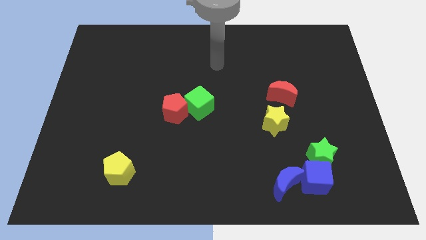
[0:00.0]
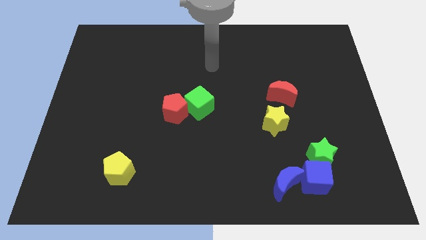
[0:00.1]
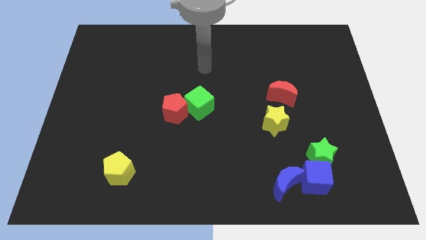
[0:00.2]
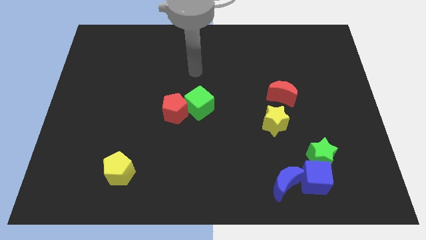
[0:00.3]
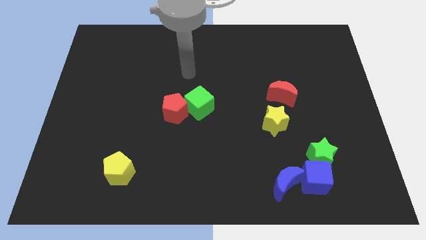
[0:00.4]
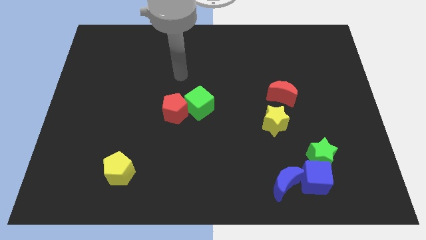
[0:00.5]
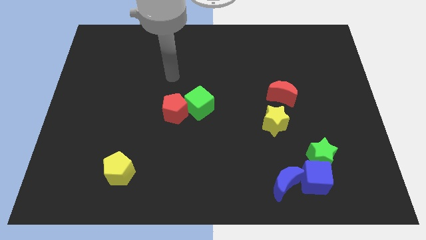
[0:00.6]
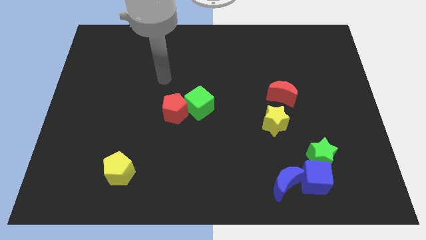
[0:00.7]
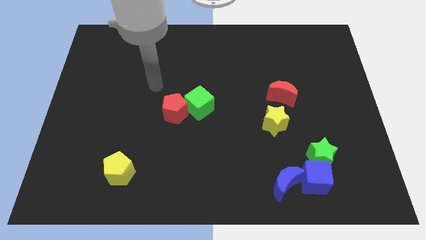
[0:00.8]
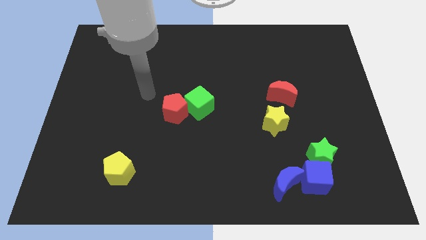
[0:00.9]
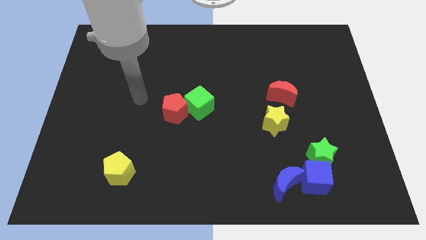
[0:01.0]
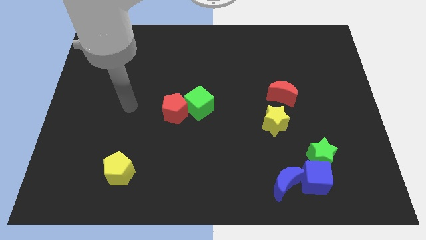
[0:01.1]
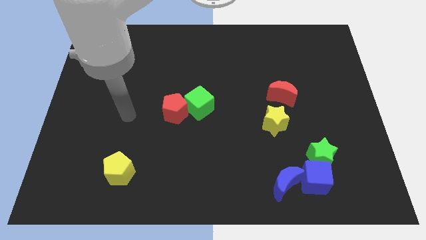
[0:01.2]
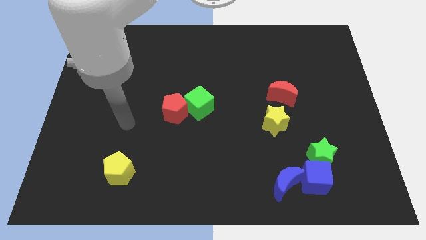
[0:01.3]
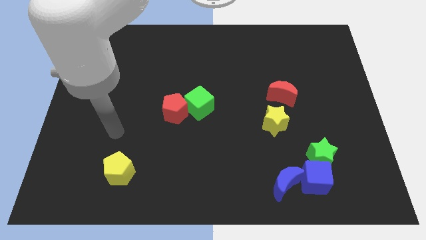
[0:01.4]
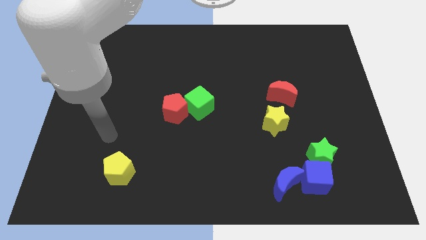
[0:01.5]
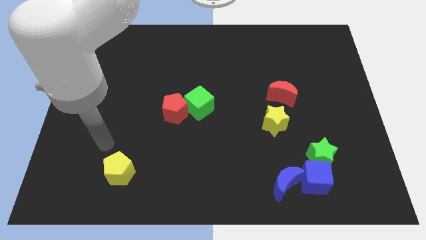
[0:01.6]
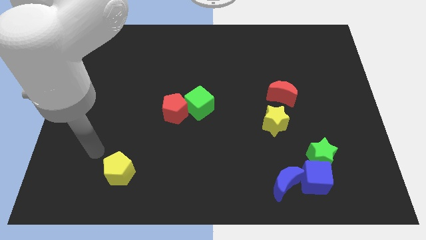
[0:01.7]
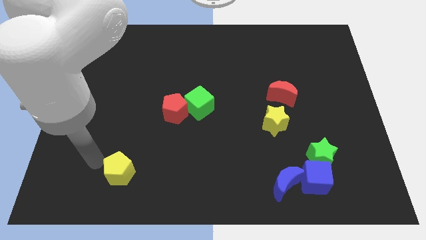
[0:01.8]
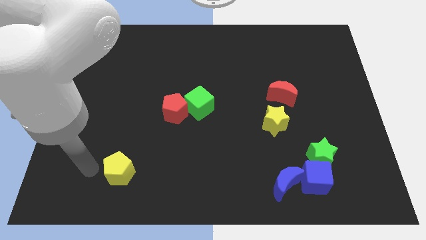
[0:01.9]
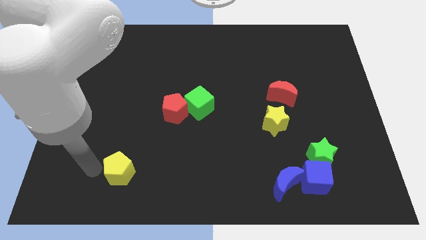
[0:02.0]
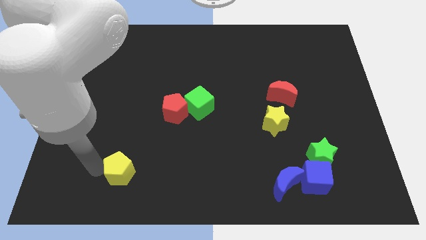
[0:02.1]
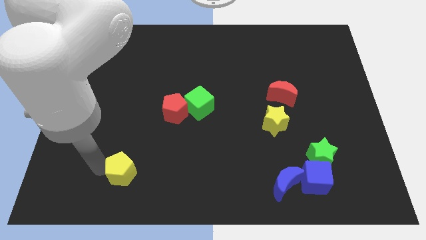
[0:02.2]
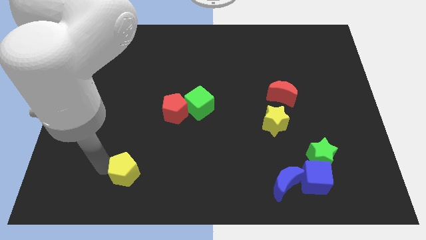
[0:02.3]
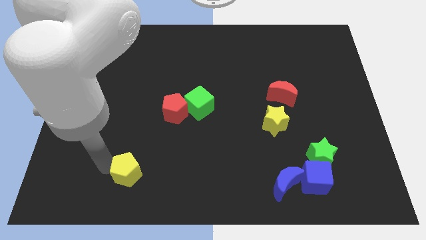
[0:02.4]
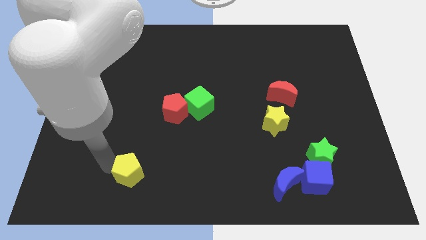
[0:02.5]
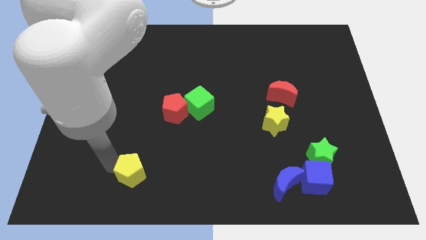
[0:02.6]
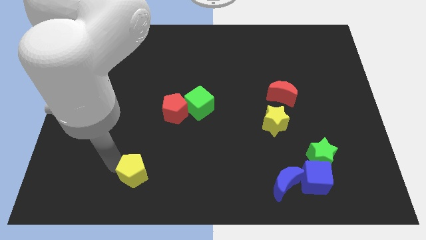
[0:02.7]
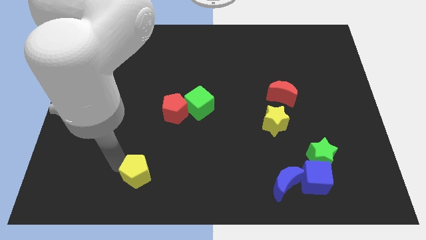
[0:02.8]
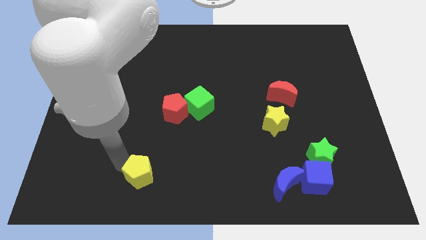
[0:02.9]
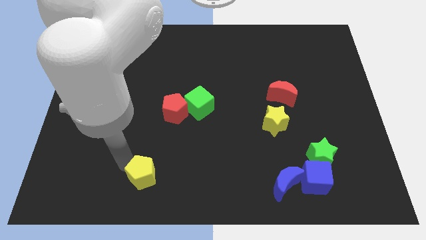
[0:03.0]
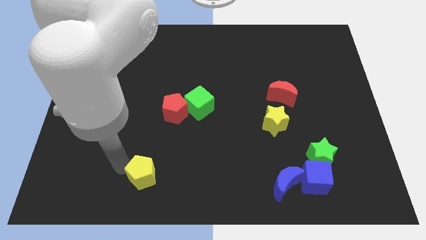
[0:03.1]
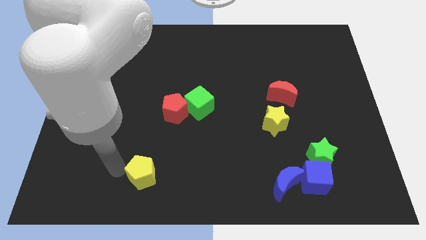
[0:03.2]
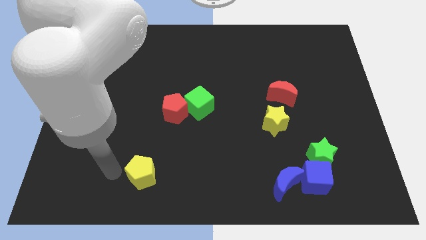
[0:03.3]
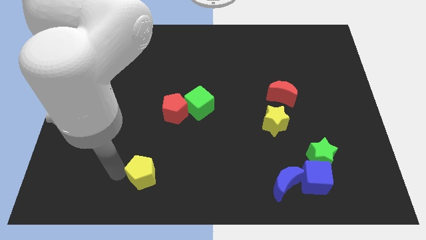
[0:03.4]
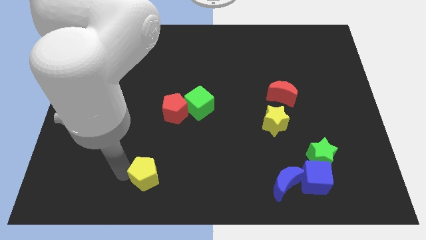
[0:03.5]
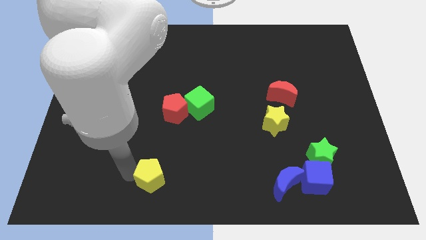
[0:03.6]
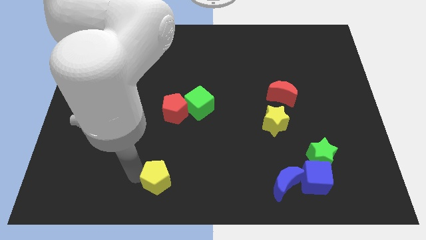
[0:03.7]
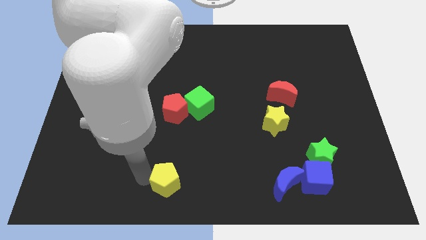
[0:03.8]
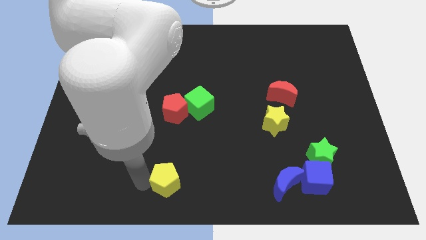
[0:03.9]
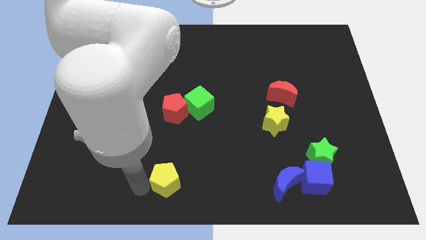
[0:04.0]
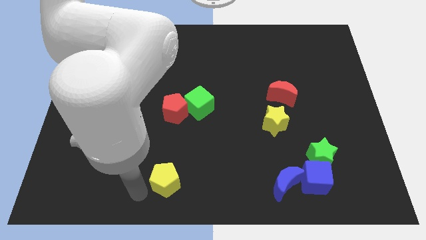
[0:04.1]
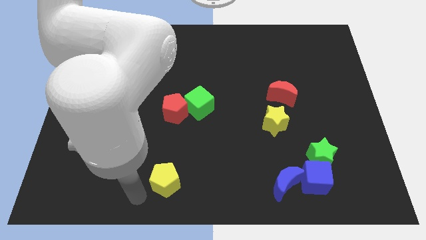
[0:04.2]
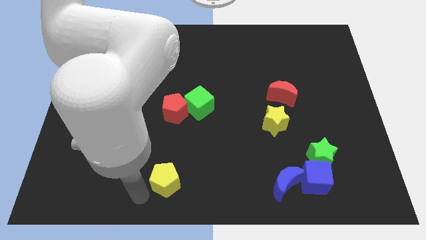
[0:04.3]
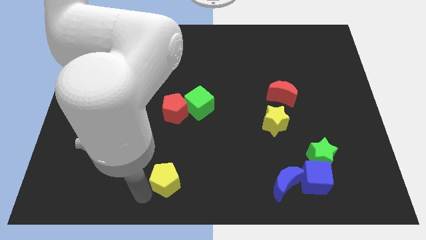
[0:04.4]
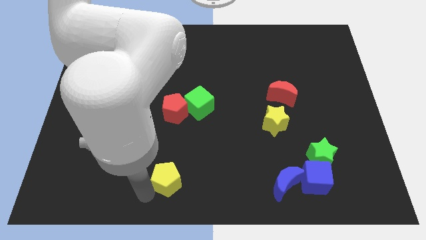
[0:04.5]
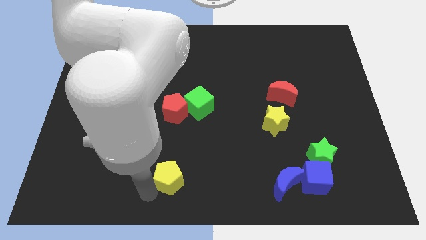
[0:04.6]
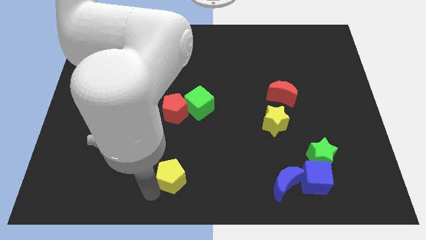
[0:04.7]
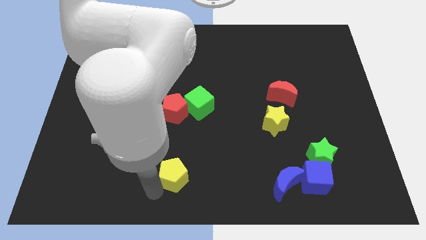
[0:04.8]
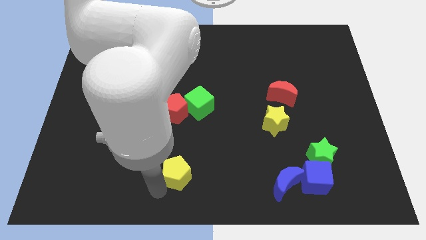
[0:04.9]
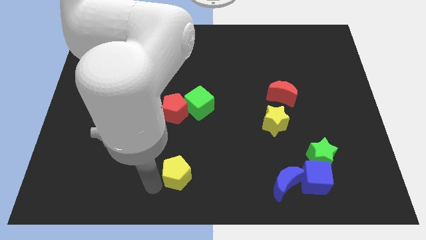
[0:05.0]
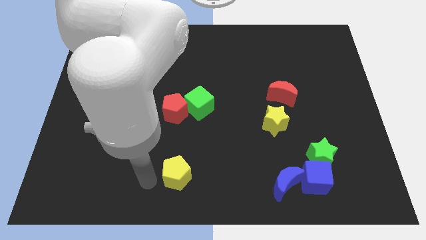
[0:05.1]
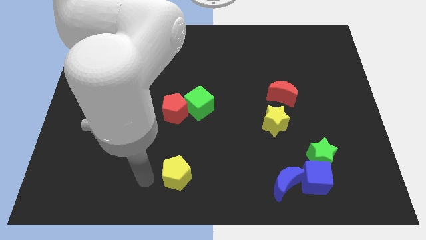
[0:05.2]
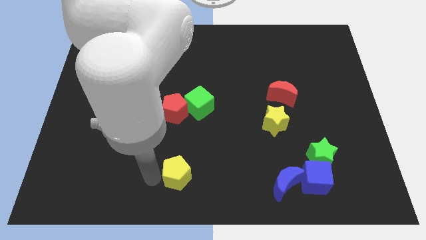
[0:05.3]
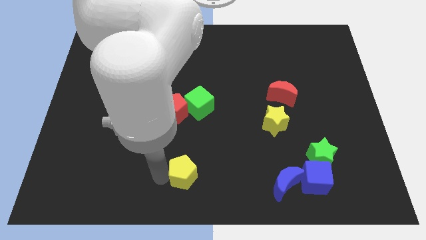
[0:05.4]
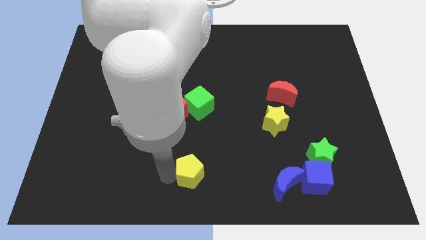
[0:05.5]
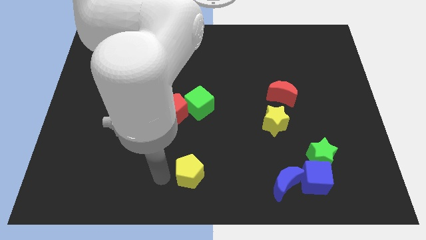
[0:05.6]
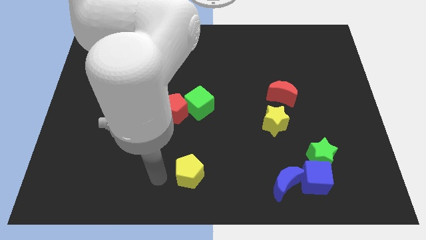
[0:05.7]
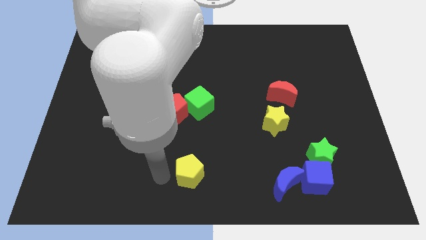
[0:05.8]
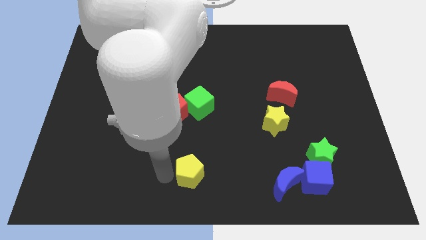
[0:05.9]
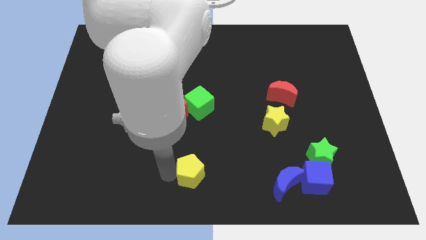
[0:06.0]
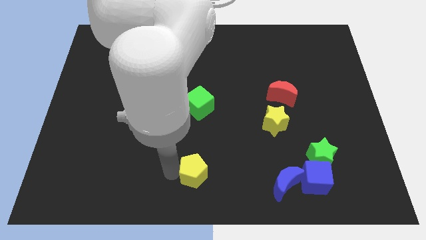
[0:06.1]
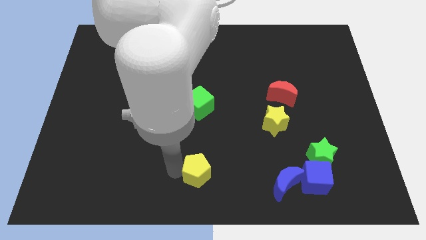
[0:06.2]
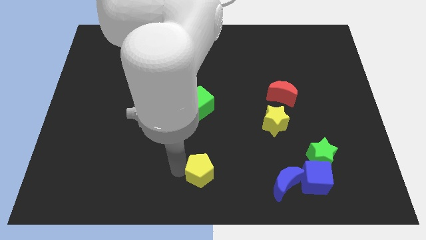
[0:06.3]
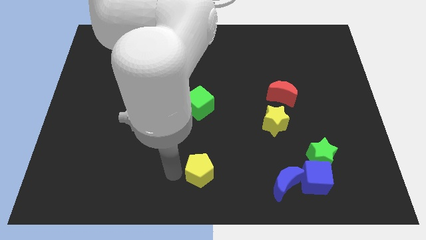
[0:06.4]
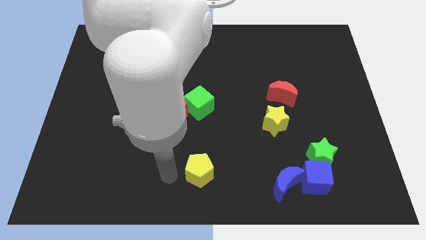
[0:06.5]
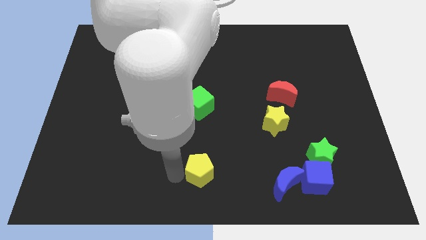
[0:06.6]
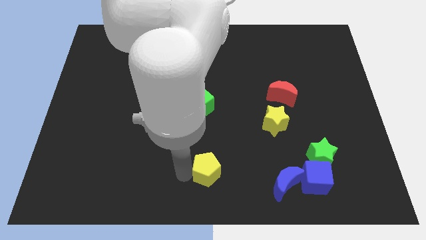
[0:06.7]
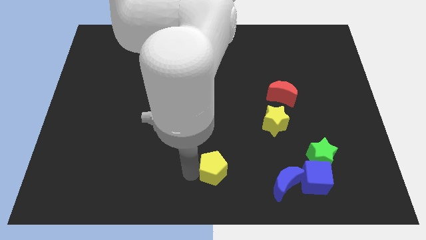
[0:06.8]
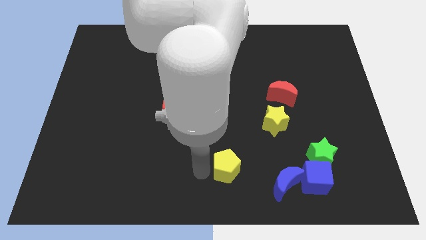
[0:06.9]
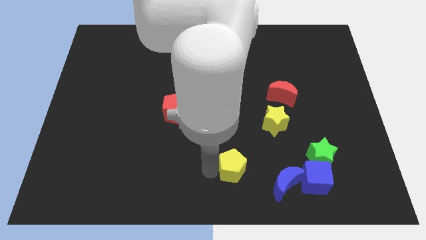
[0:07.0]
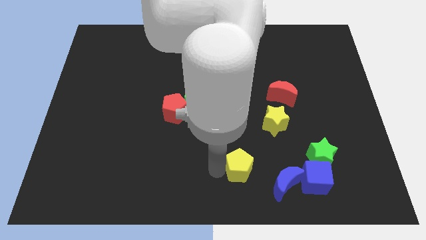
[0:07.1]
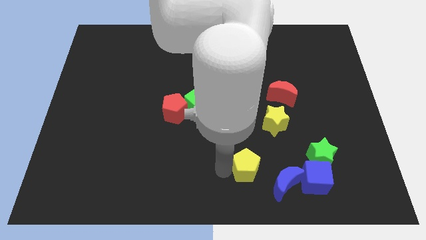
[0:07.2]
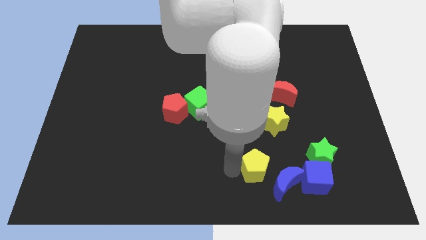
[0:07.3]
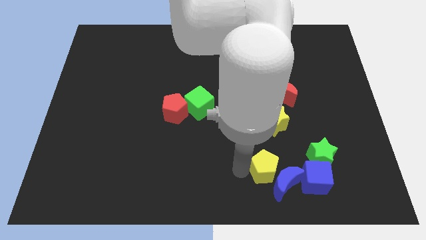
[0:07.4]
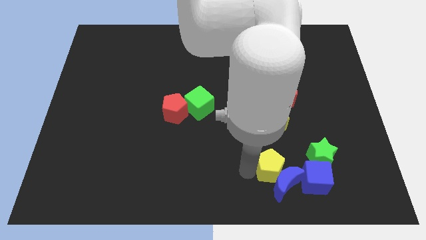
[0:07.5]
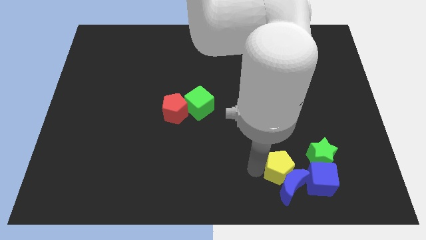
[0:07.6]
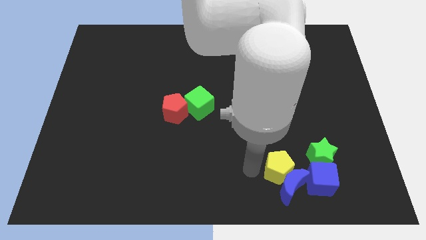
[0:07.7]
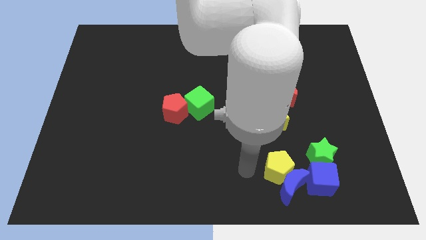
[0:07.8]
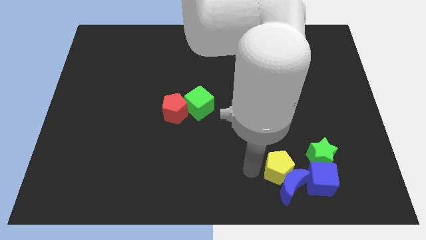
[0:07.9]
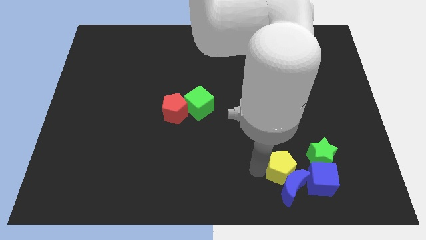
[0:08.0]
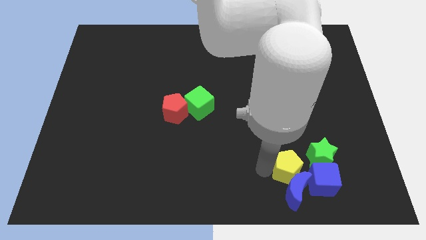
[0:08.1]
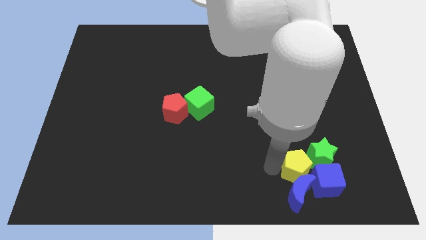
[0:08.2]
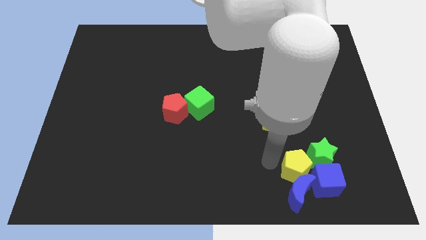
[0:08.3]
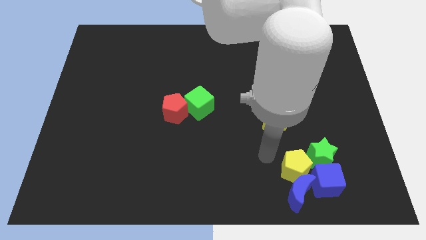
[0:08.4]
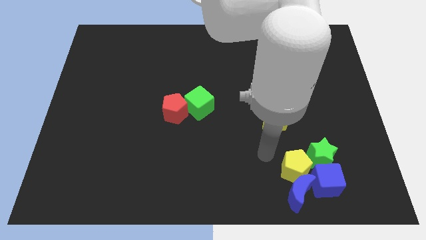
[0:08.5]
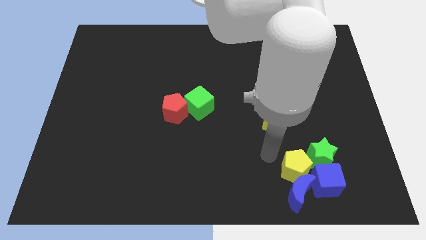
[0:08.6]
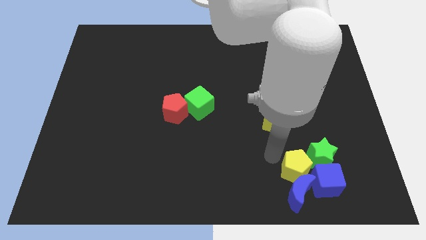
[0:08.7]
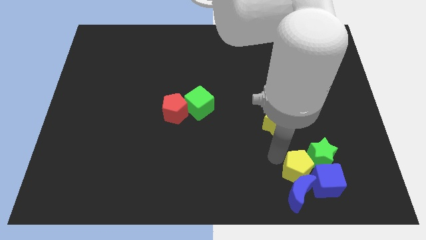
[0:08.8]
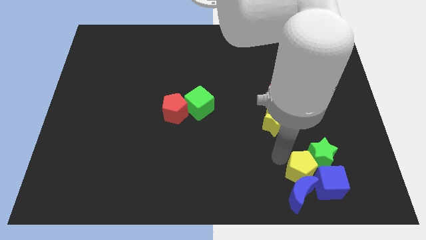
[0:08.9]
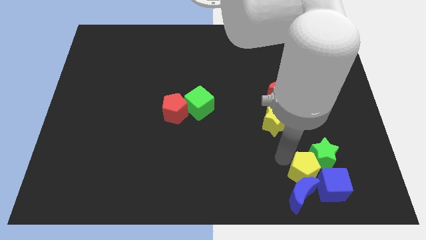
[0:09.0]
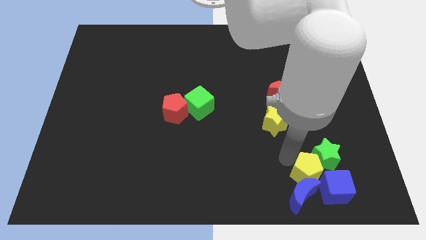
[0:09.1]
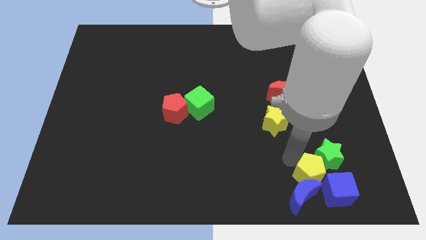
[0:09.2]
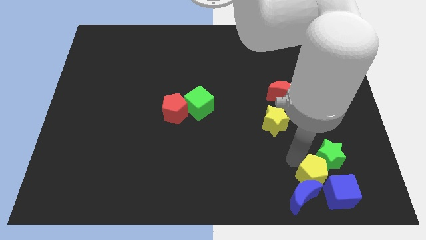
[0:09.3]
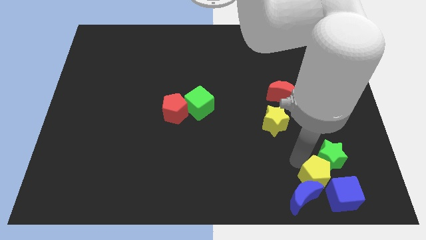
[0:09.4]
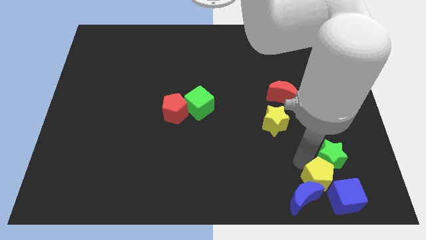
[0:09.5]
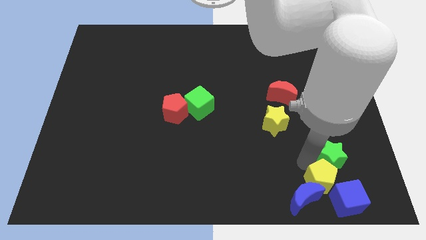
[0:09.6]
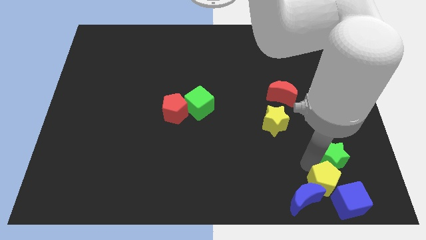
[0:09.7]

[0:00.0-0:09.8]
put the yellow pentagon towards the blue cube
